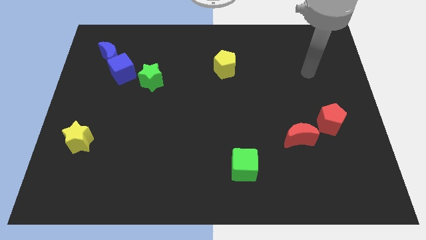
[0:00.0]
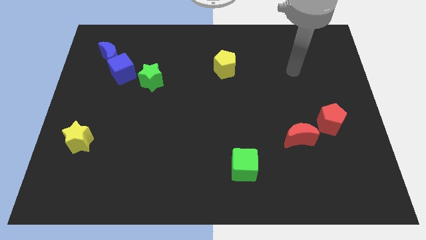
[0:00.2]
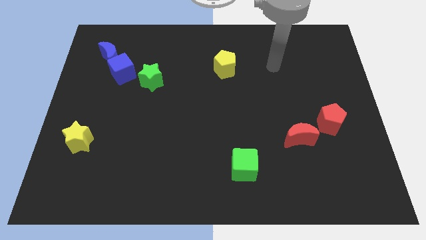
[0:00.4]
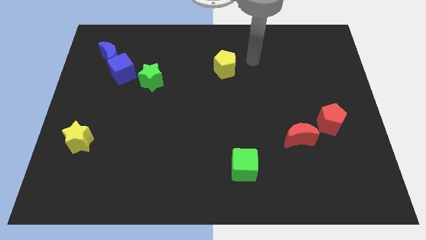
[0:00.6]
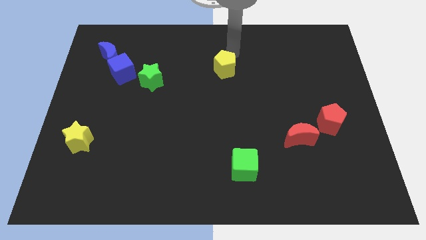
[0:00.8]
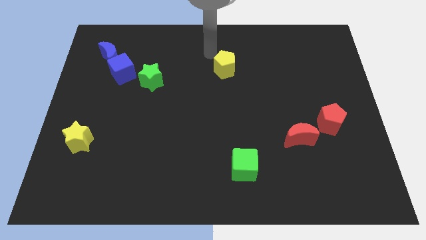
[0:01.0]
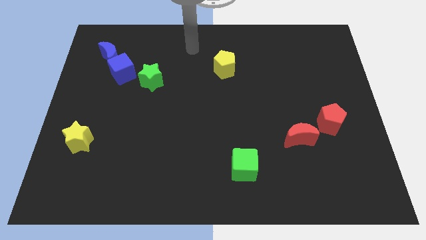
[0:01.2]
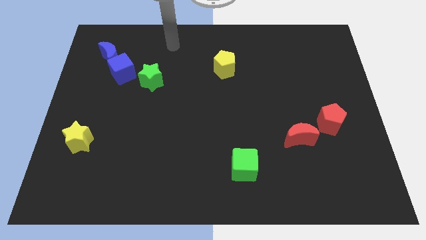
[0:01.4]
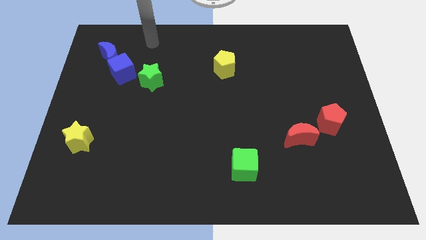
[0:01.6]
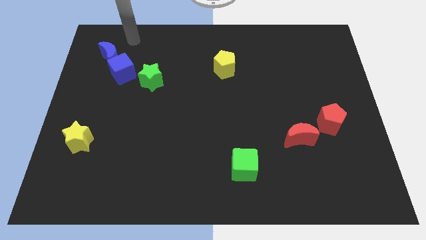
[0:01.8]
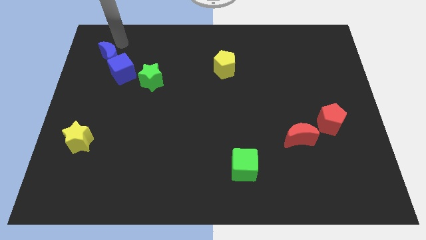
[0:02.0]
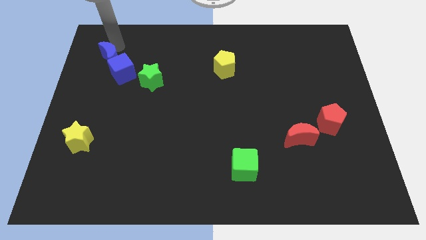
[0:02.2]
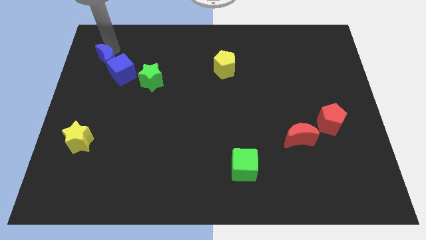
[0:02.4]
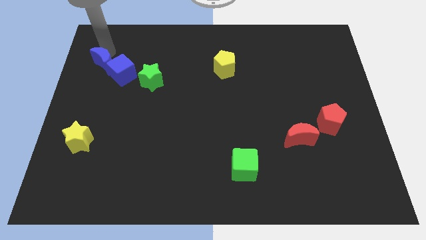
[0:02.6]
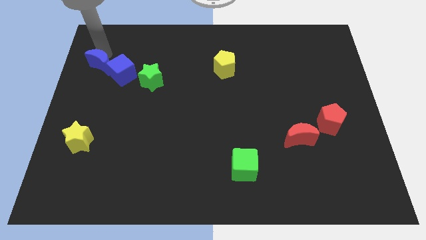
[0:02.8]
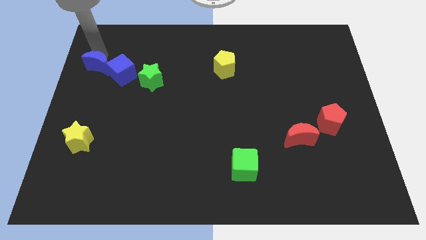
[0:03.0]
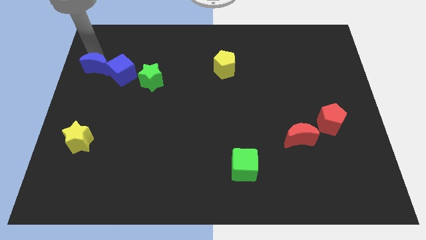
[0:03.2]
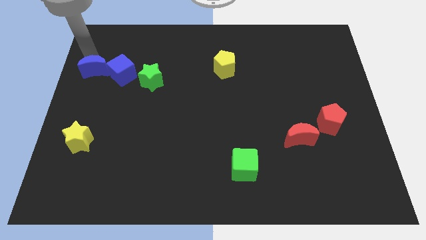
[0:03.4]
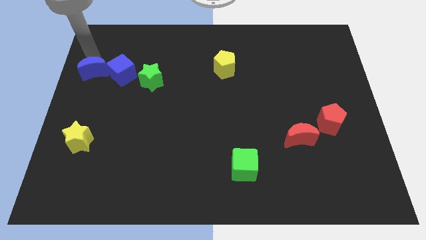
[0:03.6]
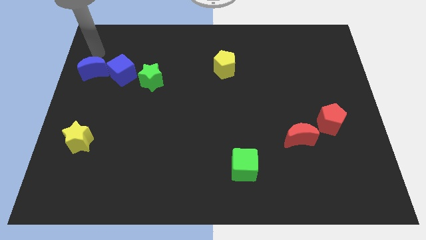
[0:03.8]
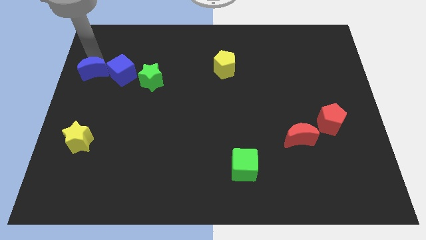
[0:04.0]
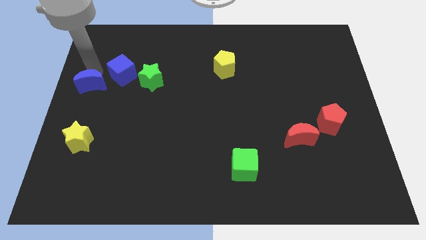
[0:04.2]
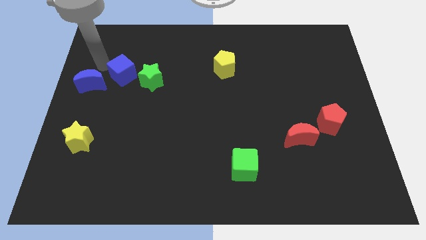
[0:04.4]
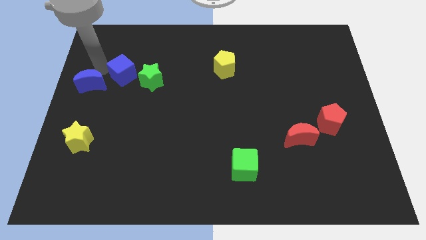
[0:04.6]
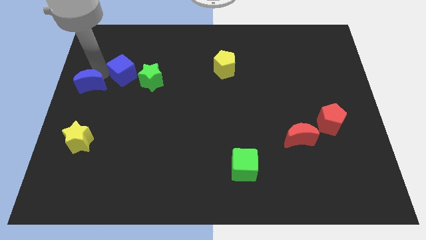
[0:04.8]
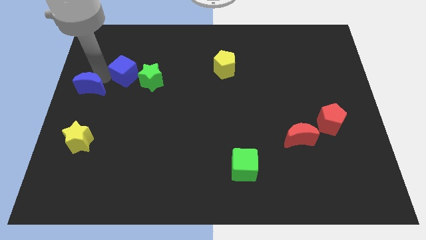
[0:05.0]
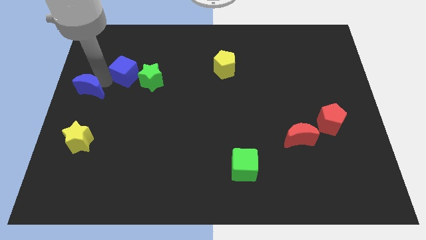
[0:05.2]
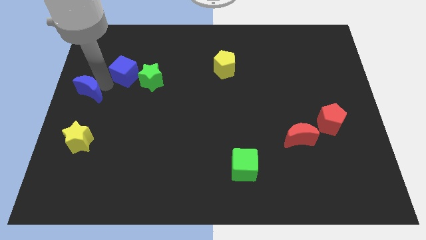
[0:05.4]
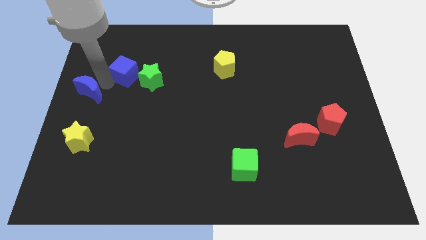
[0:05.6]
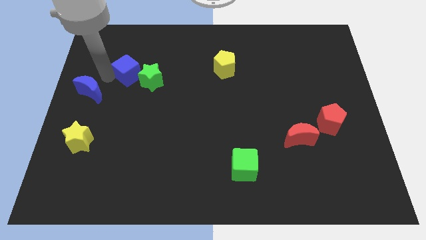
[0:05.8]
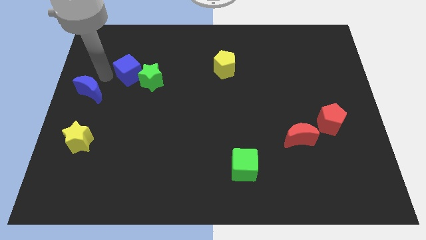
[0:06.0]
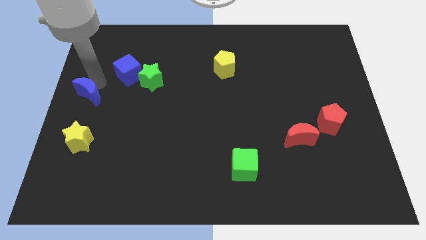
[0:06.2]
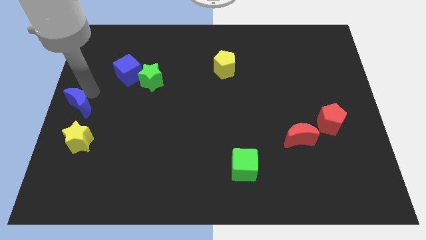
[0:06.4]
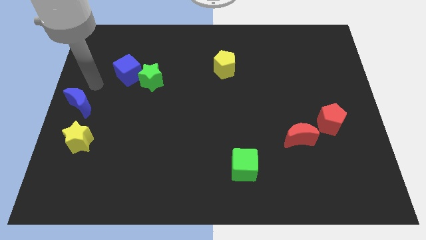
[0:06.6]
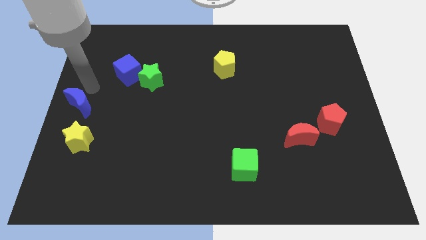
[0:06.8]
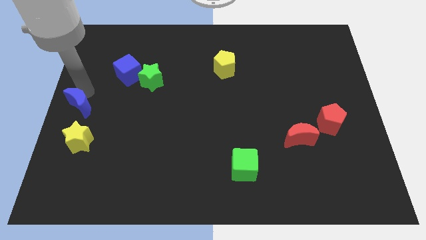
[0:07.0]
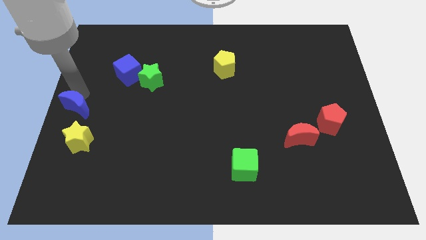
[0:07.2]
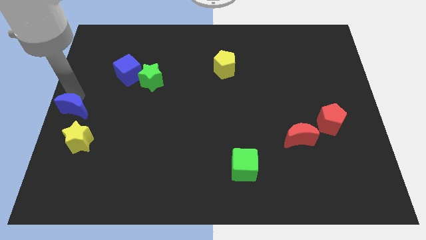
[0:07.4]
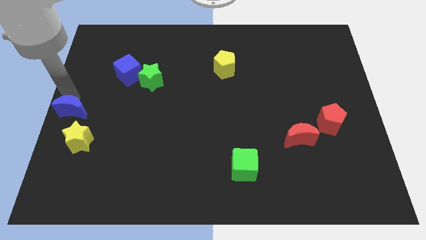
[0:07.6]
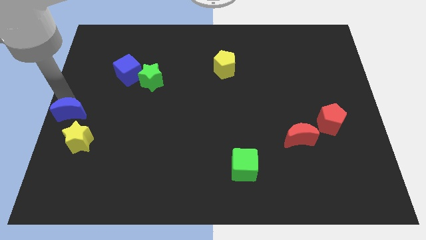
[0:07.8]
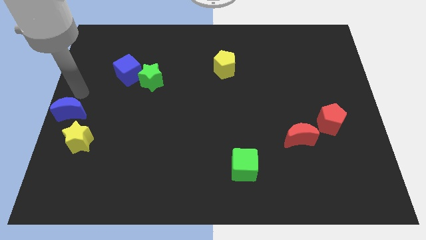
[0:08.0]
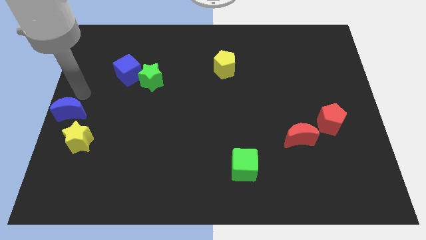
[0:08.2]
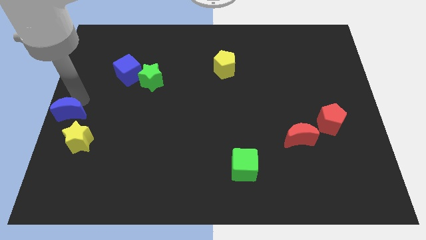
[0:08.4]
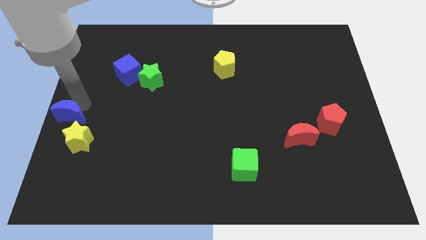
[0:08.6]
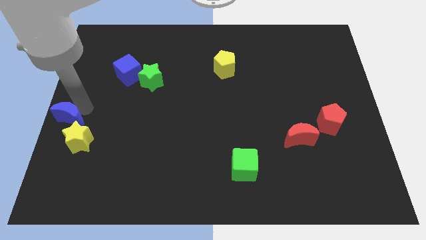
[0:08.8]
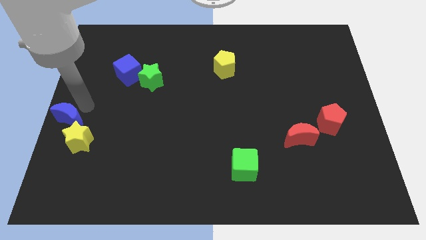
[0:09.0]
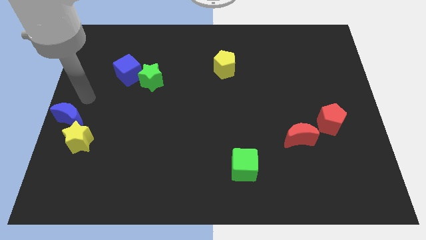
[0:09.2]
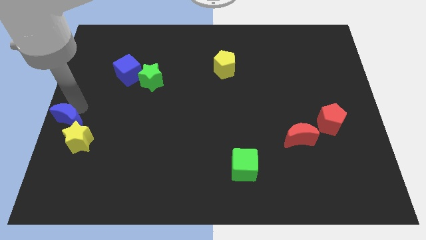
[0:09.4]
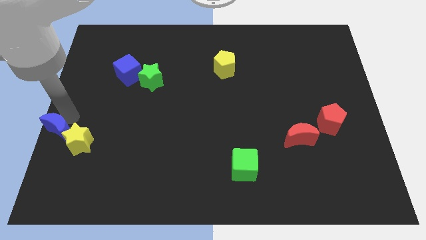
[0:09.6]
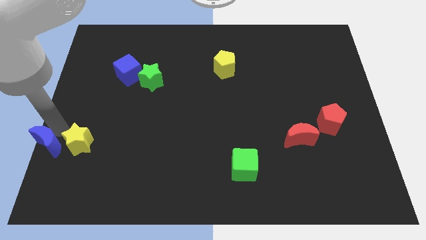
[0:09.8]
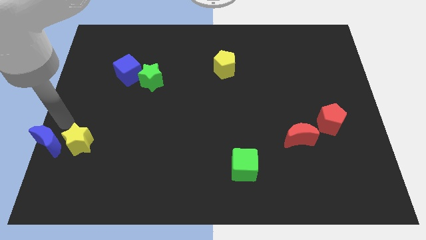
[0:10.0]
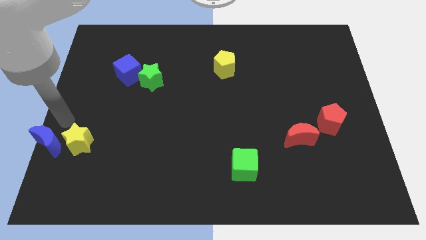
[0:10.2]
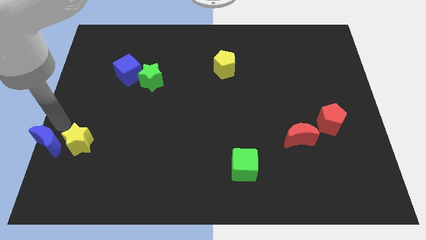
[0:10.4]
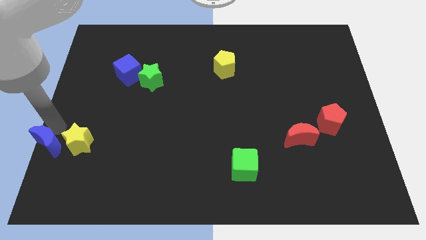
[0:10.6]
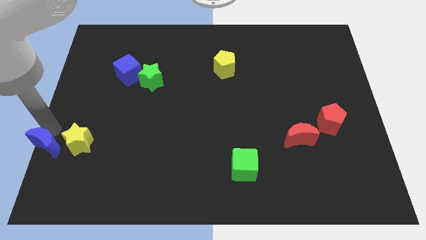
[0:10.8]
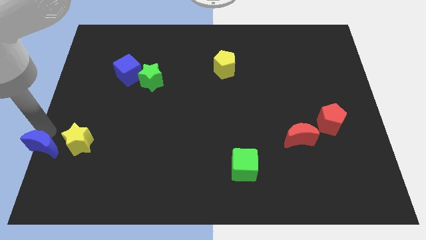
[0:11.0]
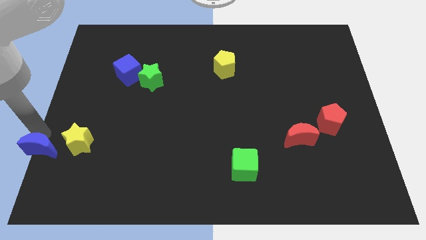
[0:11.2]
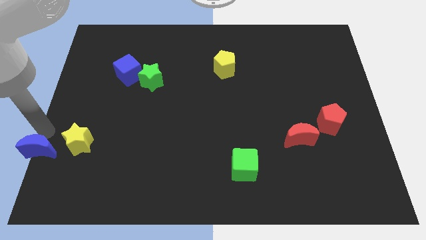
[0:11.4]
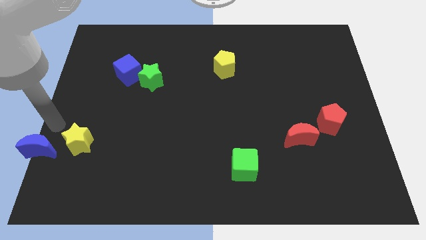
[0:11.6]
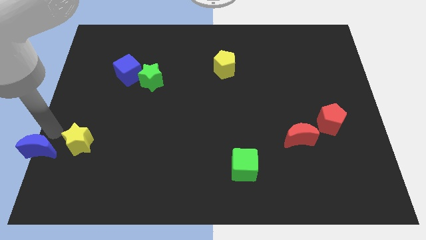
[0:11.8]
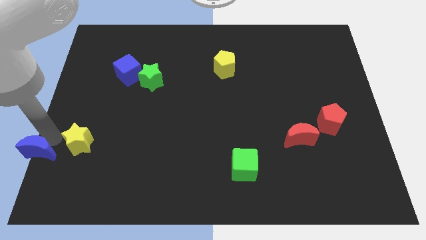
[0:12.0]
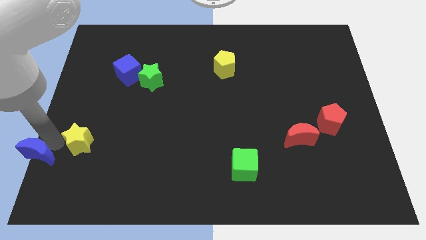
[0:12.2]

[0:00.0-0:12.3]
push the blue moon to the lower left corner
